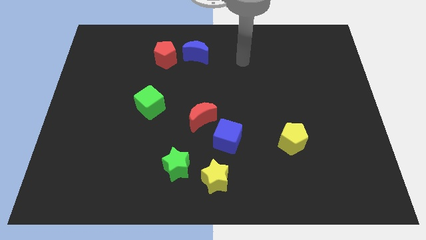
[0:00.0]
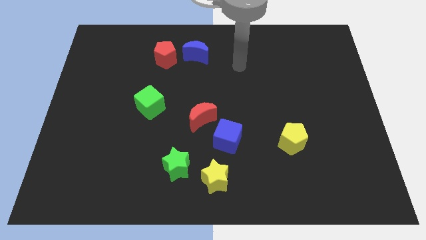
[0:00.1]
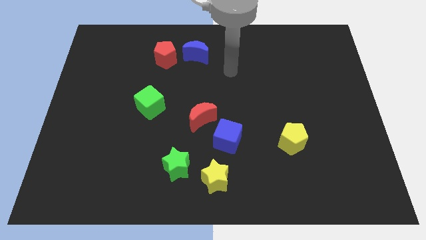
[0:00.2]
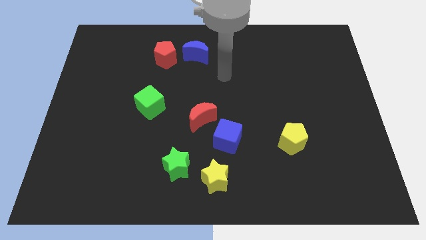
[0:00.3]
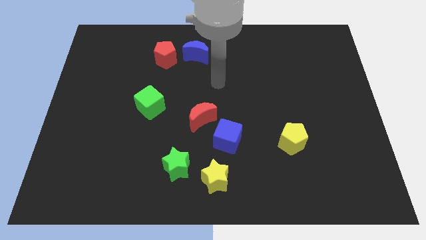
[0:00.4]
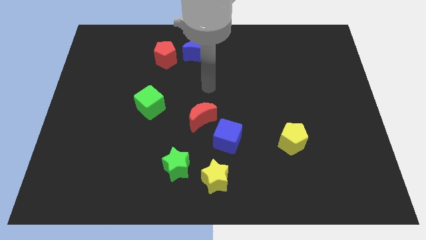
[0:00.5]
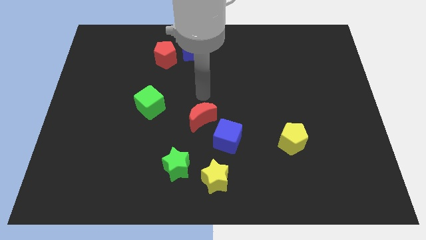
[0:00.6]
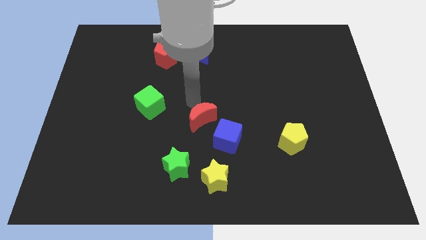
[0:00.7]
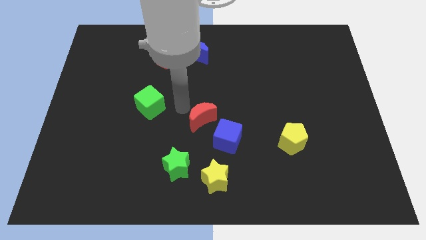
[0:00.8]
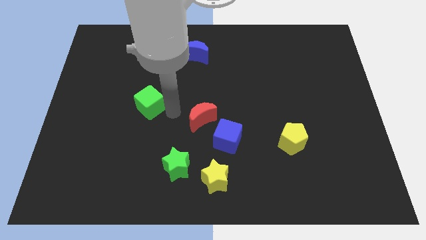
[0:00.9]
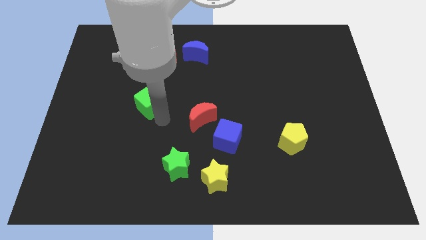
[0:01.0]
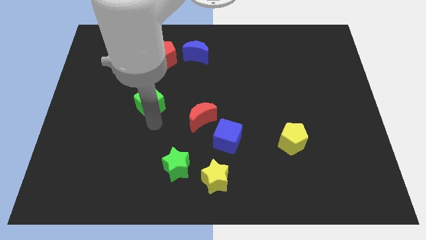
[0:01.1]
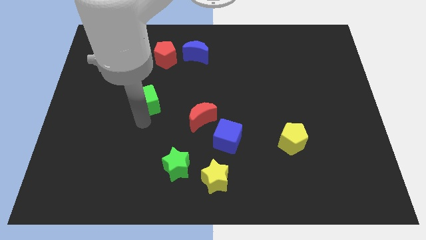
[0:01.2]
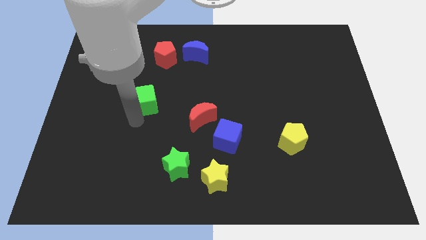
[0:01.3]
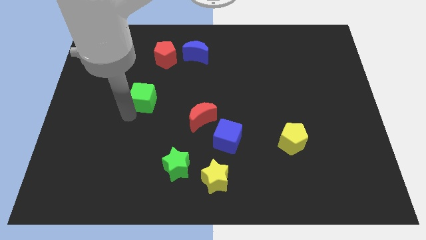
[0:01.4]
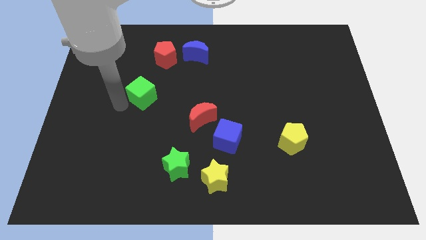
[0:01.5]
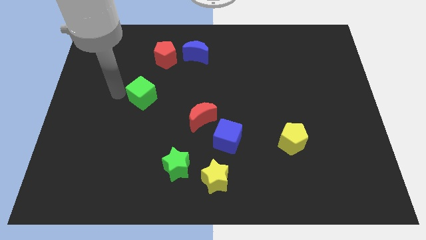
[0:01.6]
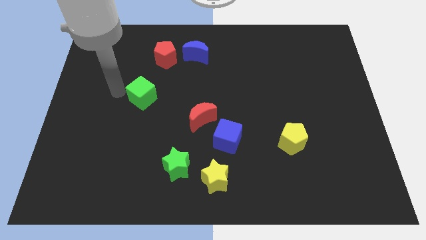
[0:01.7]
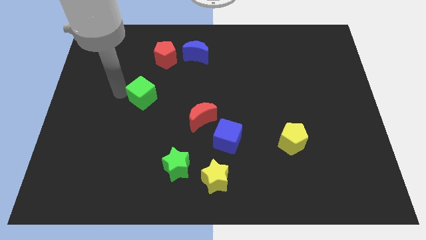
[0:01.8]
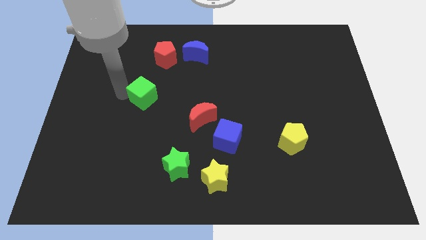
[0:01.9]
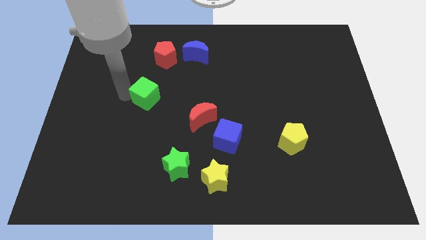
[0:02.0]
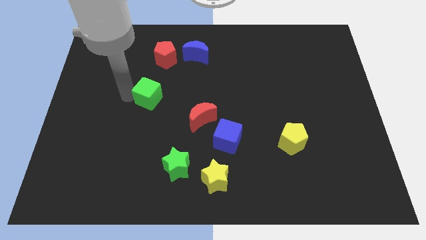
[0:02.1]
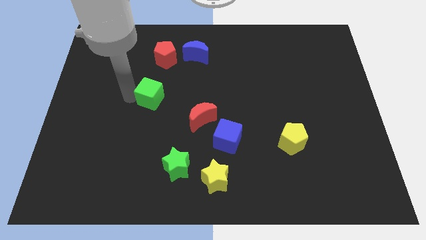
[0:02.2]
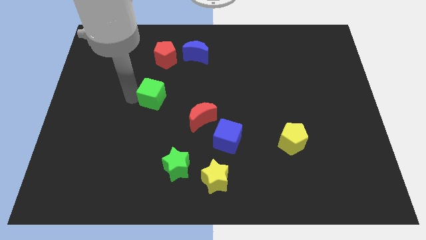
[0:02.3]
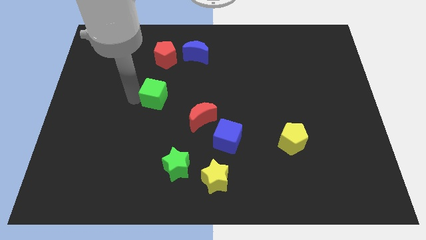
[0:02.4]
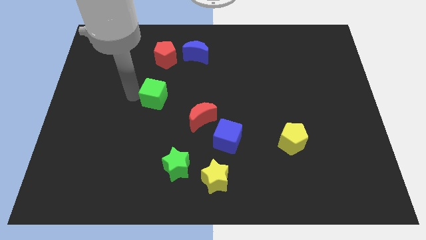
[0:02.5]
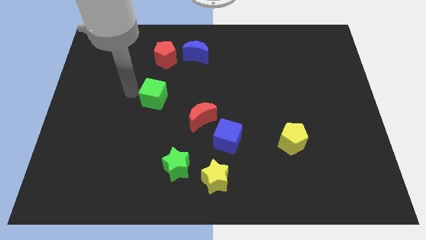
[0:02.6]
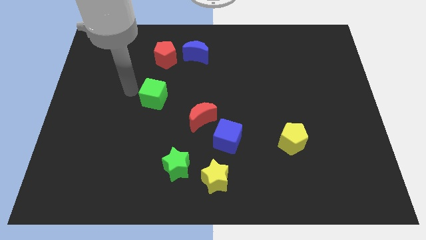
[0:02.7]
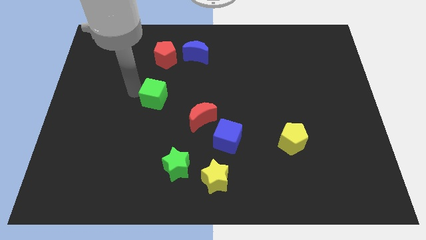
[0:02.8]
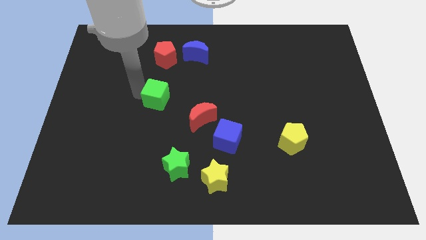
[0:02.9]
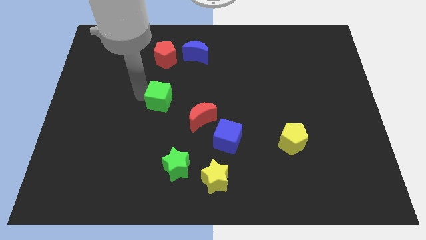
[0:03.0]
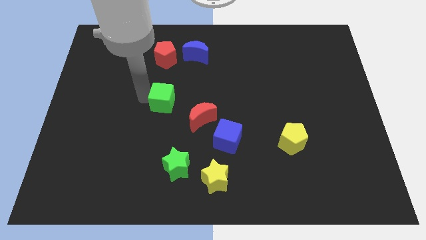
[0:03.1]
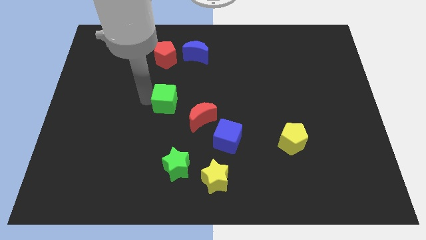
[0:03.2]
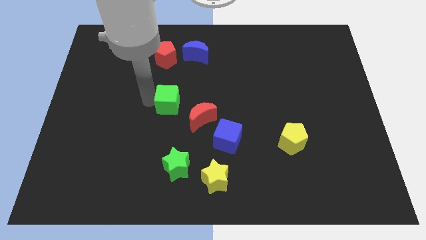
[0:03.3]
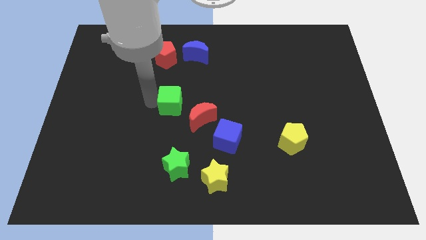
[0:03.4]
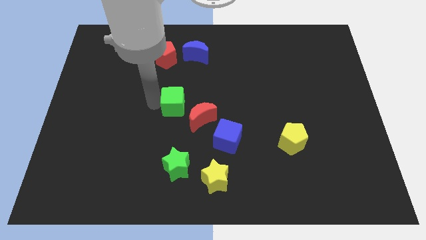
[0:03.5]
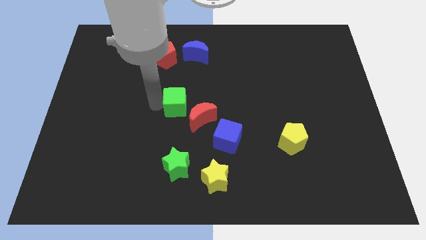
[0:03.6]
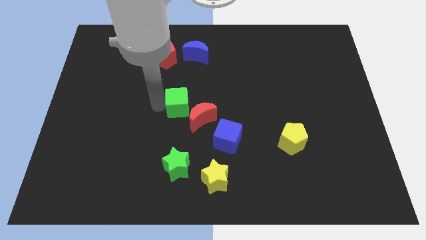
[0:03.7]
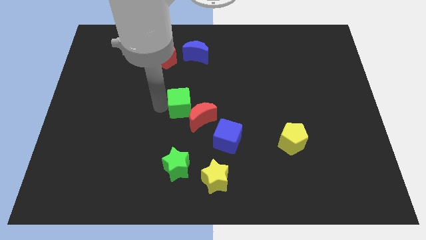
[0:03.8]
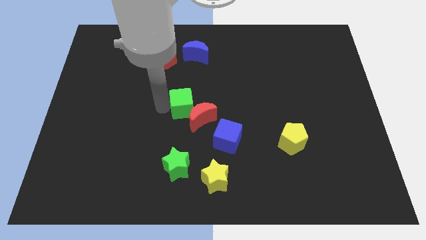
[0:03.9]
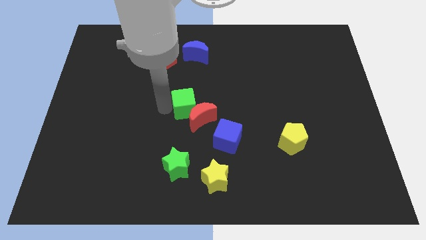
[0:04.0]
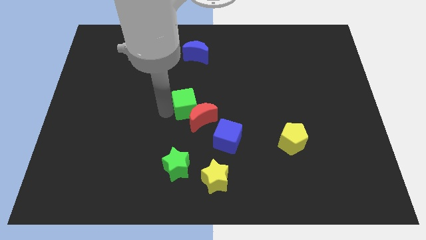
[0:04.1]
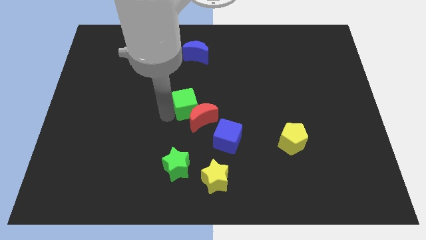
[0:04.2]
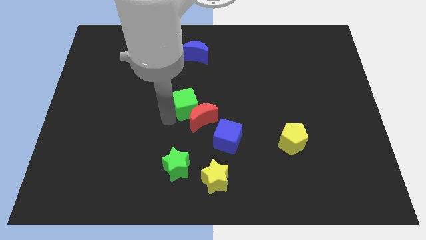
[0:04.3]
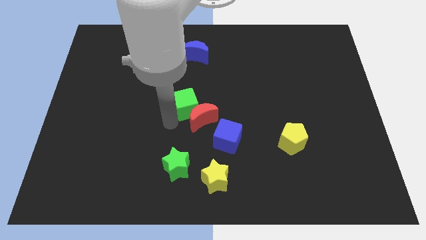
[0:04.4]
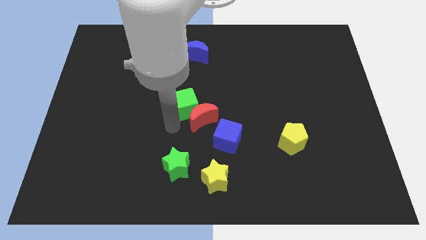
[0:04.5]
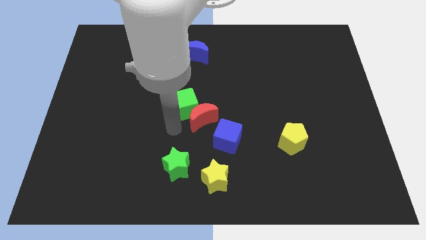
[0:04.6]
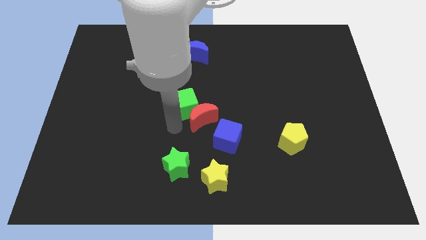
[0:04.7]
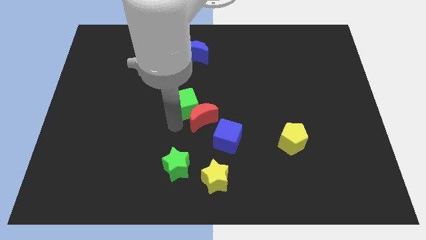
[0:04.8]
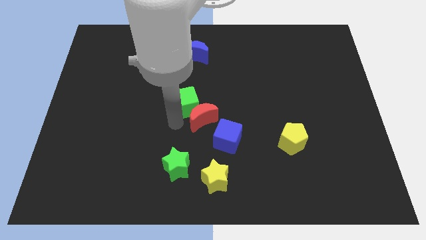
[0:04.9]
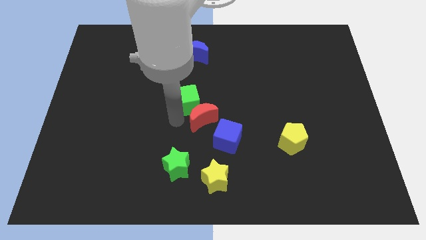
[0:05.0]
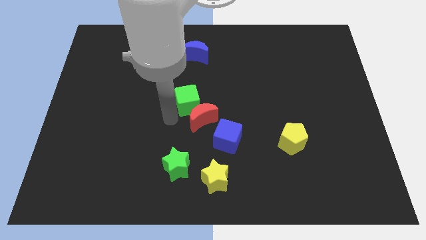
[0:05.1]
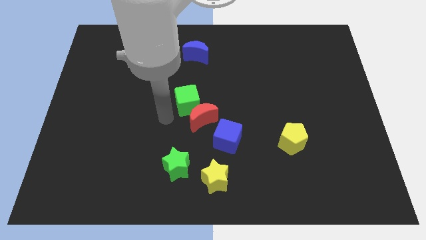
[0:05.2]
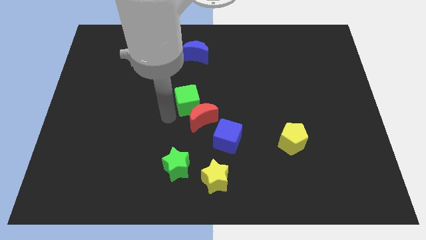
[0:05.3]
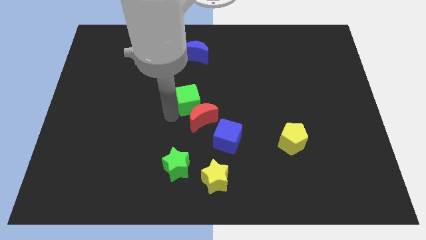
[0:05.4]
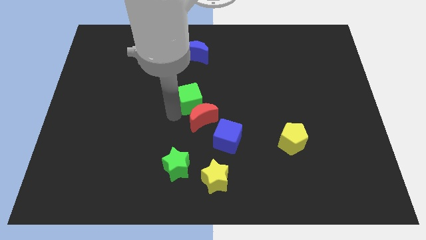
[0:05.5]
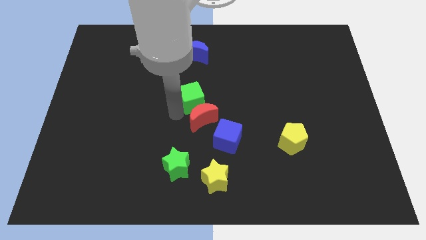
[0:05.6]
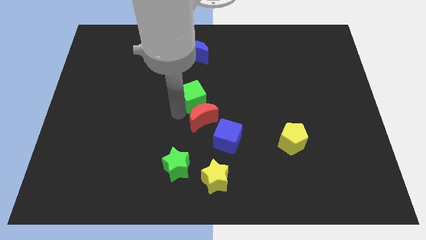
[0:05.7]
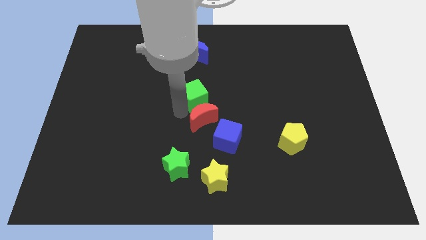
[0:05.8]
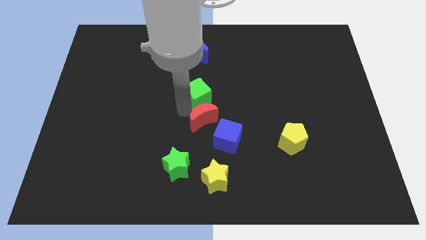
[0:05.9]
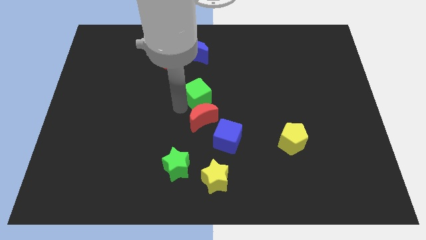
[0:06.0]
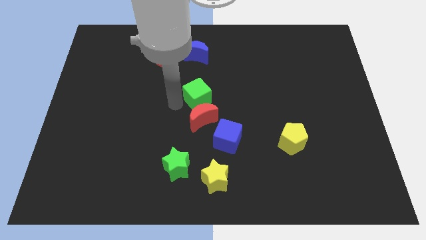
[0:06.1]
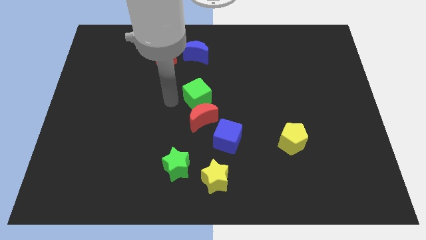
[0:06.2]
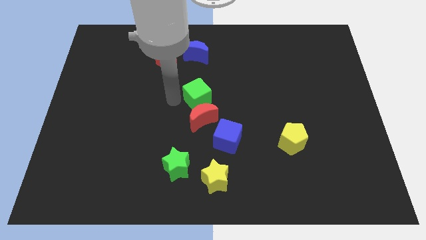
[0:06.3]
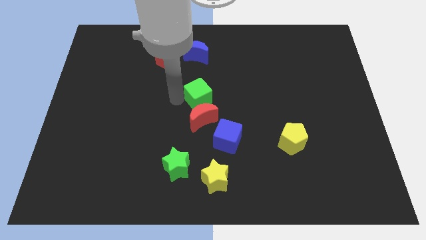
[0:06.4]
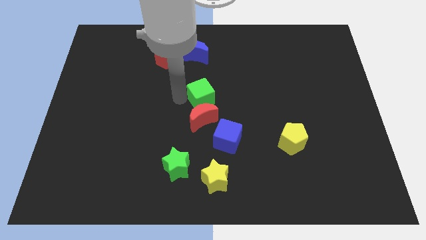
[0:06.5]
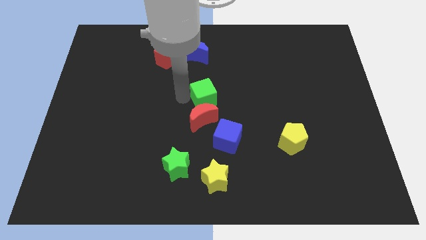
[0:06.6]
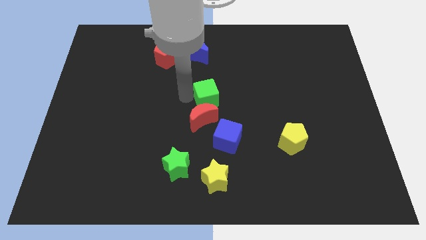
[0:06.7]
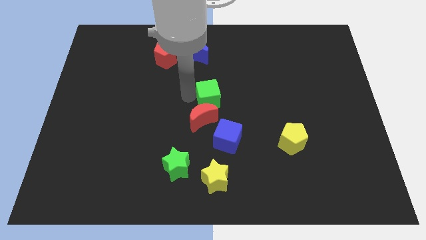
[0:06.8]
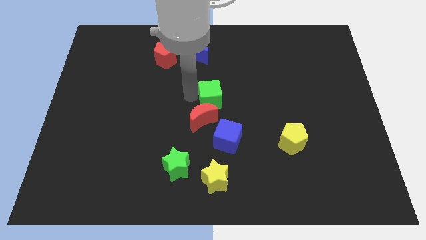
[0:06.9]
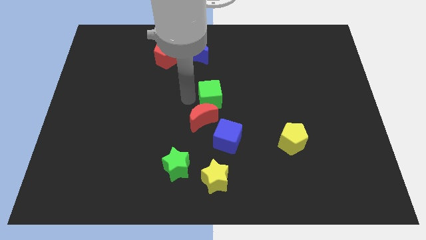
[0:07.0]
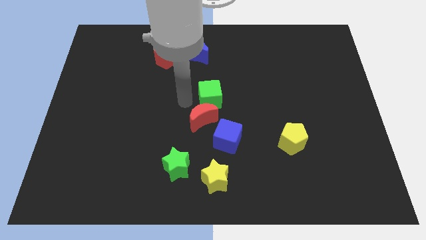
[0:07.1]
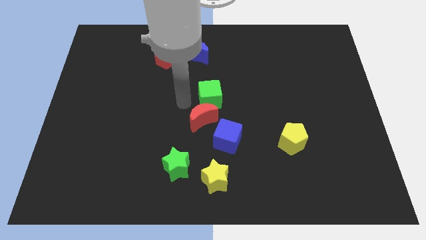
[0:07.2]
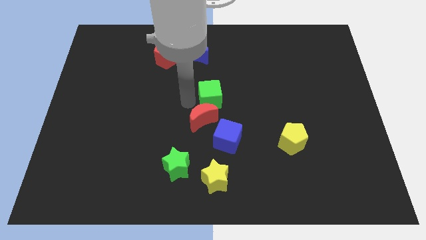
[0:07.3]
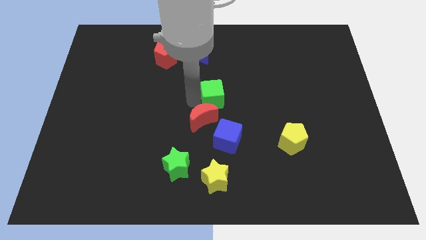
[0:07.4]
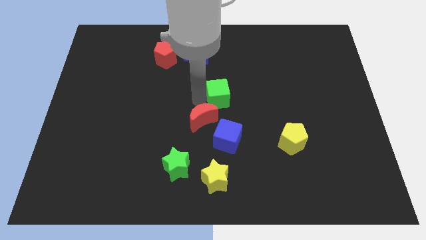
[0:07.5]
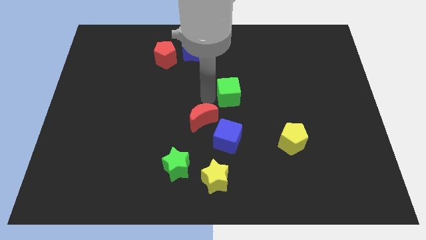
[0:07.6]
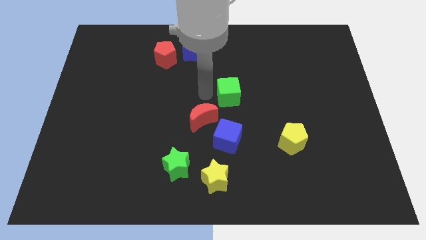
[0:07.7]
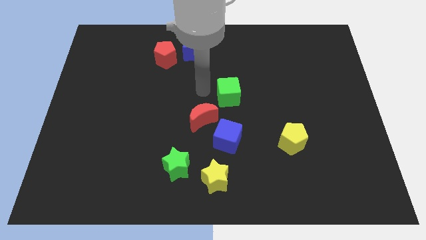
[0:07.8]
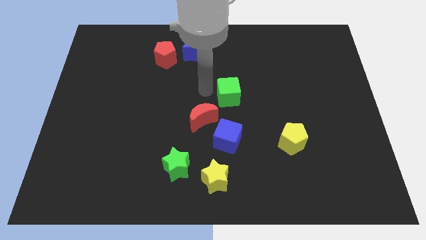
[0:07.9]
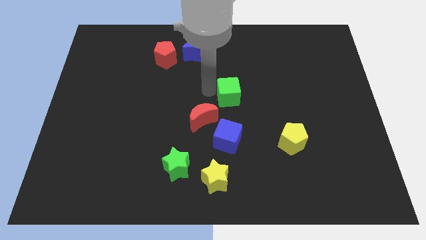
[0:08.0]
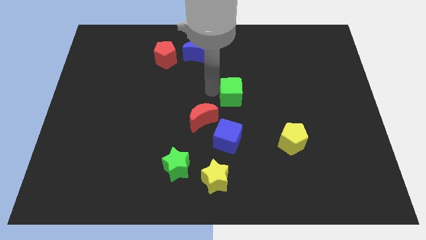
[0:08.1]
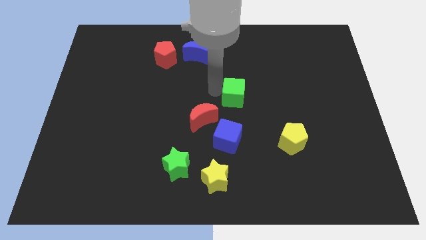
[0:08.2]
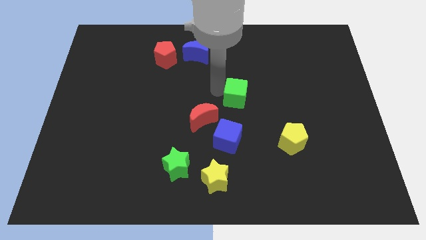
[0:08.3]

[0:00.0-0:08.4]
push the green cube to the right

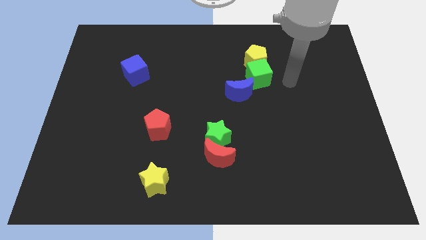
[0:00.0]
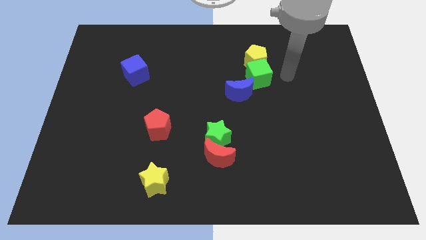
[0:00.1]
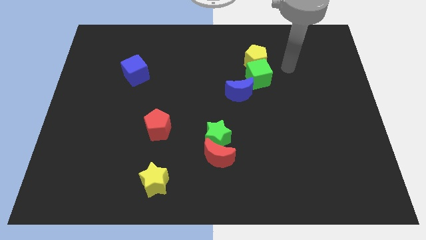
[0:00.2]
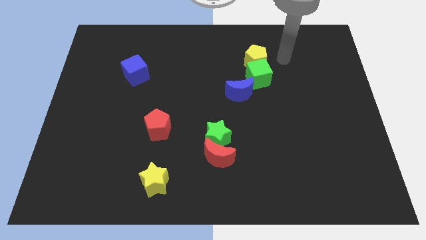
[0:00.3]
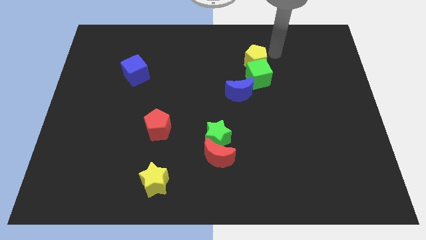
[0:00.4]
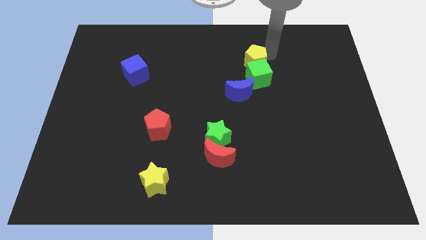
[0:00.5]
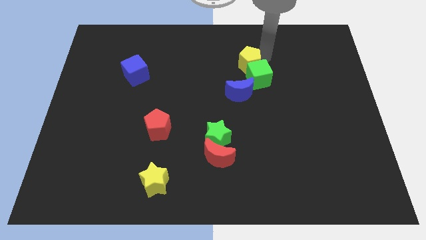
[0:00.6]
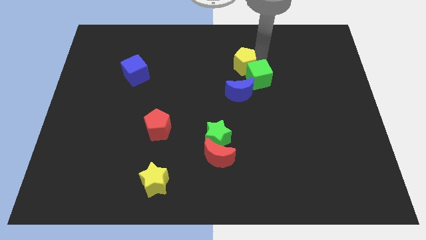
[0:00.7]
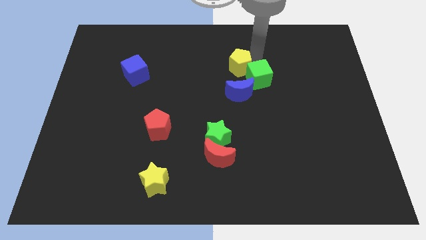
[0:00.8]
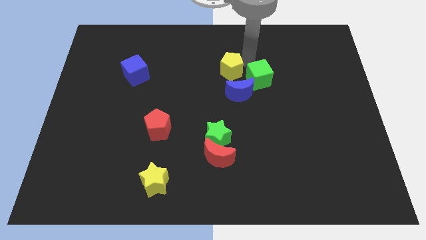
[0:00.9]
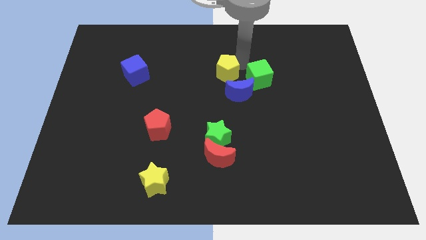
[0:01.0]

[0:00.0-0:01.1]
slide the yellow pentagon down and to the left diagonally a bit
